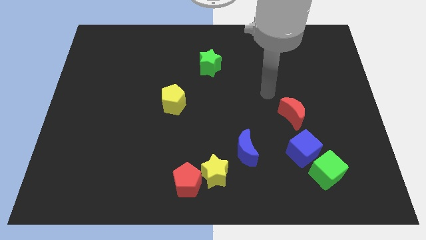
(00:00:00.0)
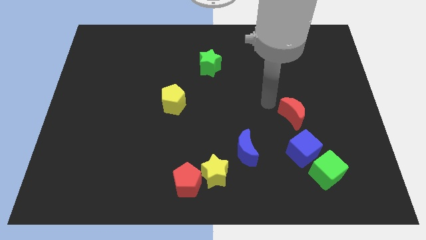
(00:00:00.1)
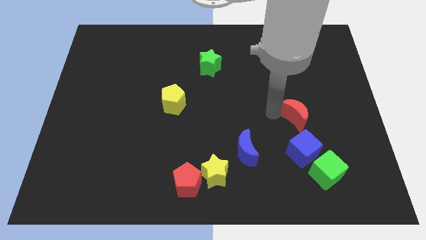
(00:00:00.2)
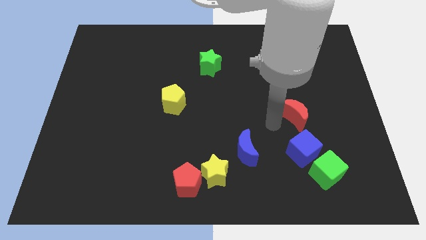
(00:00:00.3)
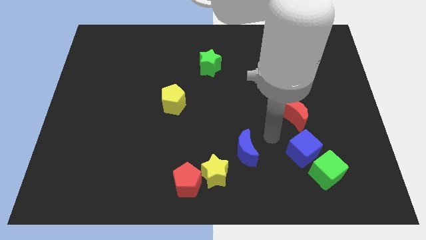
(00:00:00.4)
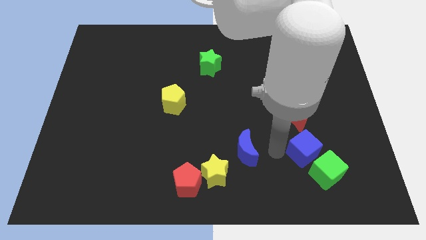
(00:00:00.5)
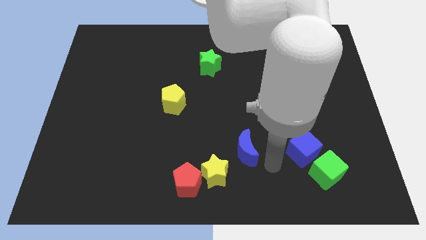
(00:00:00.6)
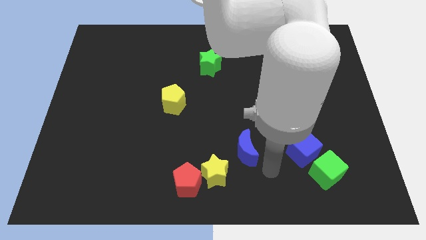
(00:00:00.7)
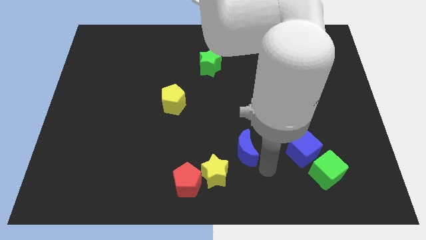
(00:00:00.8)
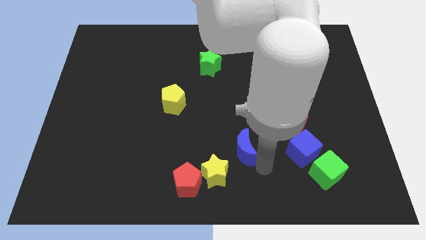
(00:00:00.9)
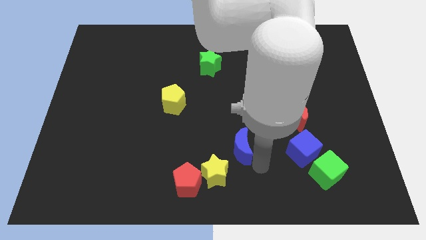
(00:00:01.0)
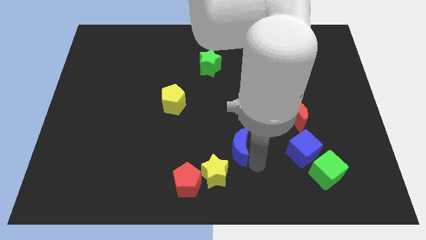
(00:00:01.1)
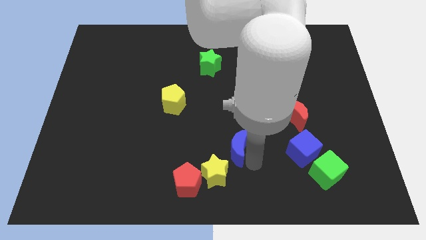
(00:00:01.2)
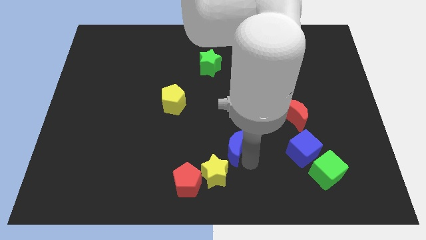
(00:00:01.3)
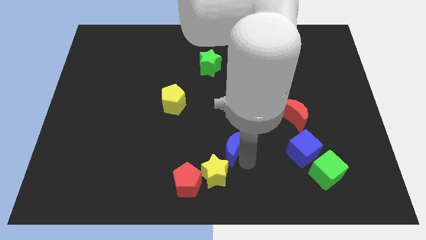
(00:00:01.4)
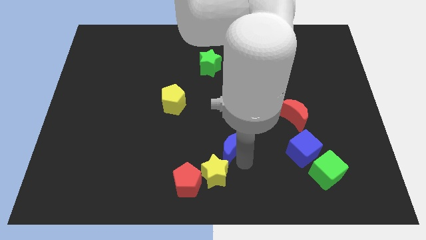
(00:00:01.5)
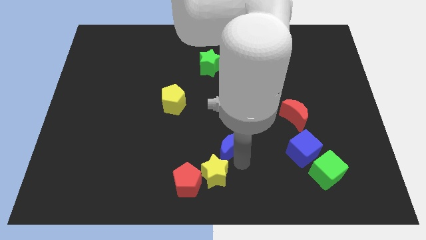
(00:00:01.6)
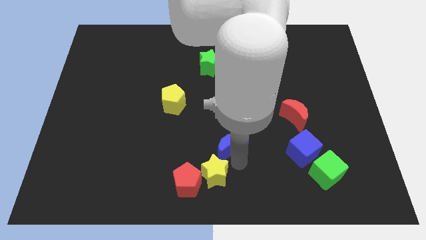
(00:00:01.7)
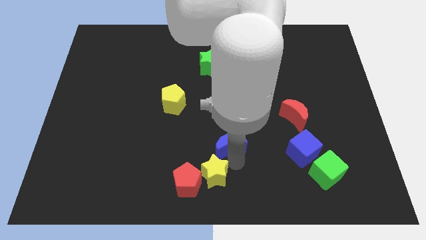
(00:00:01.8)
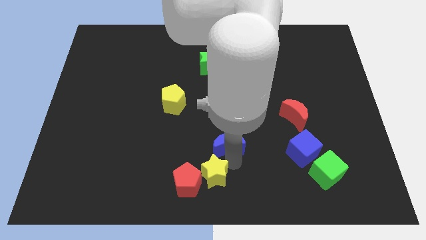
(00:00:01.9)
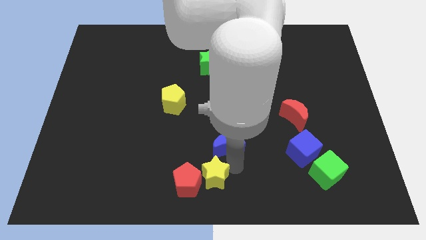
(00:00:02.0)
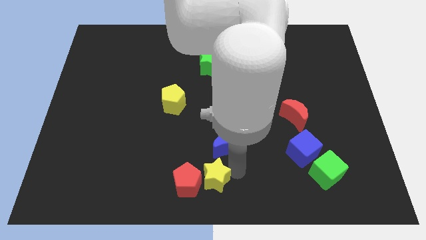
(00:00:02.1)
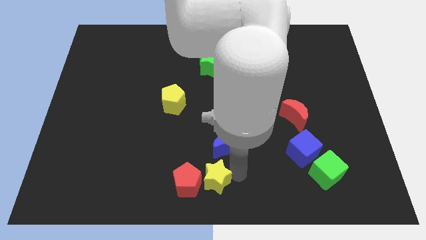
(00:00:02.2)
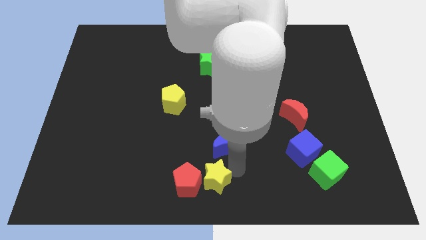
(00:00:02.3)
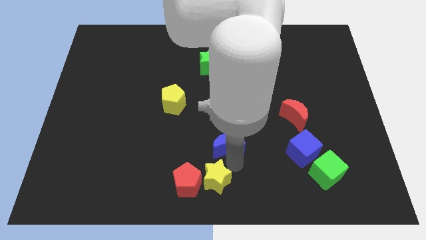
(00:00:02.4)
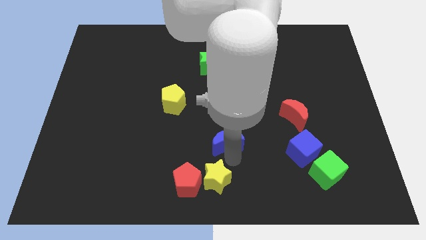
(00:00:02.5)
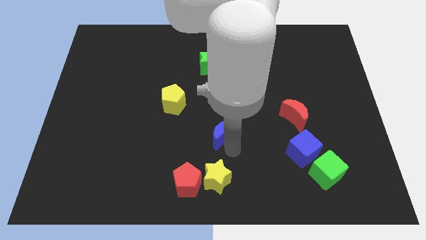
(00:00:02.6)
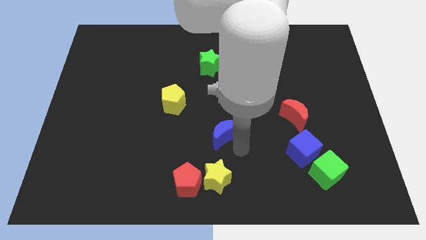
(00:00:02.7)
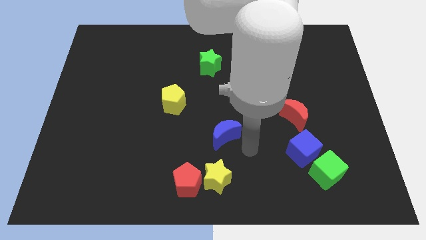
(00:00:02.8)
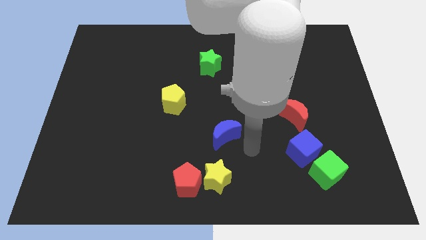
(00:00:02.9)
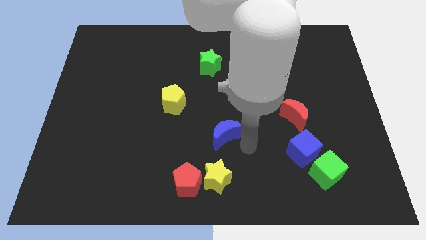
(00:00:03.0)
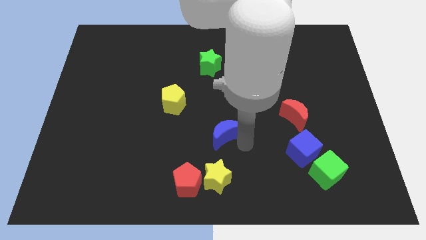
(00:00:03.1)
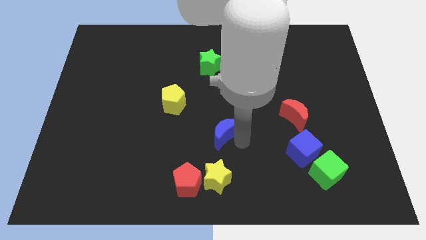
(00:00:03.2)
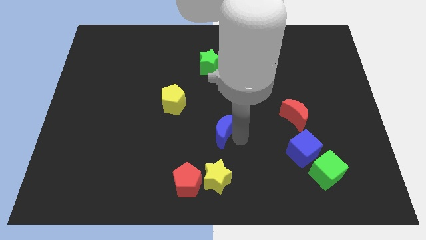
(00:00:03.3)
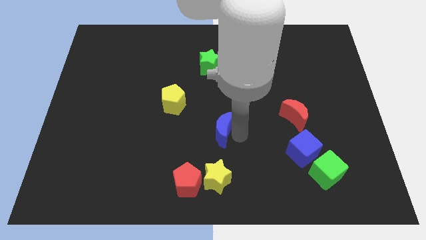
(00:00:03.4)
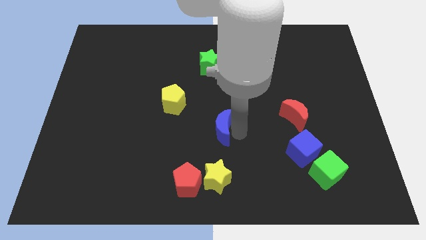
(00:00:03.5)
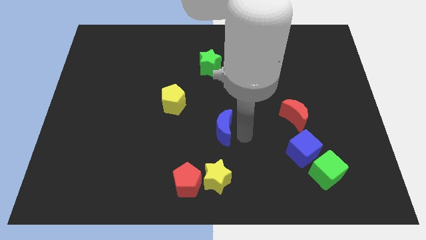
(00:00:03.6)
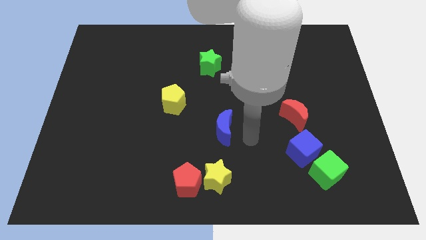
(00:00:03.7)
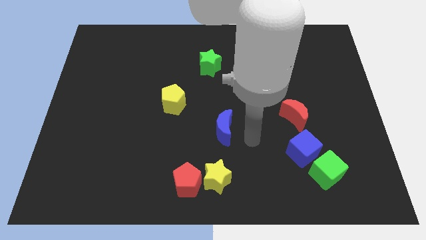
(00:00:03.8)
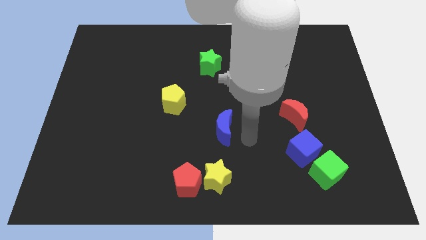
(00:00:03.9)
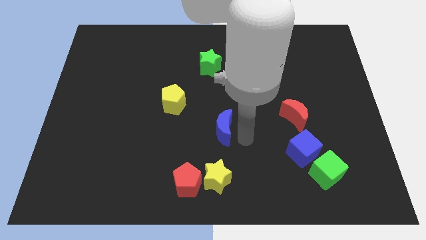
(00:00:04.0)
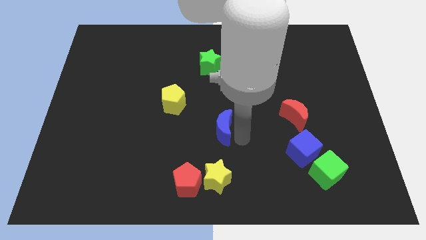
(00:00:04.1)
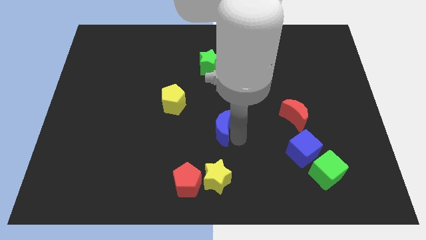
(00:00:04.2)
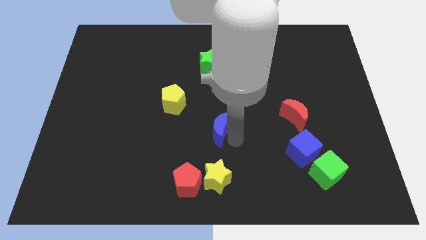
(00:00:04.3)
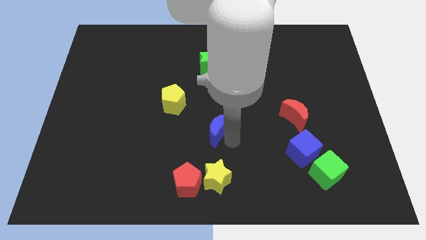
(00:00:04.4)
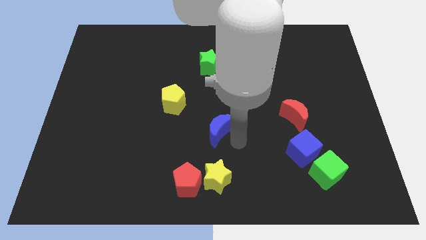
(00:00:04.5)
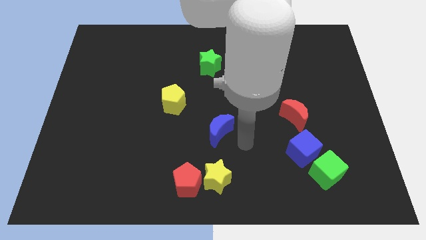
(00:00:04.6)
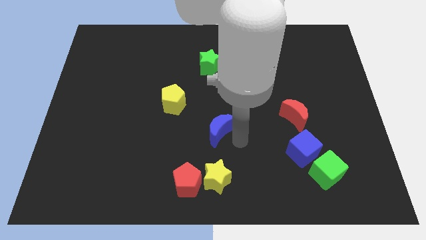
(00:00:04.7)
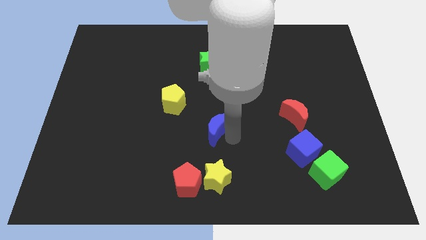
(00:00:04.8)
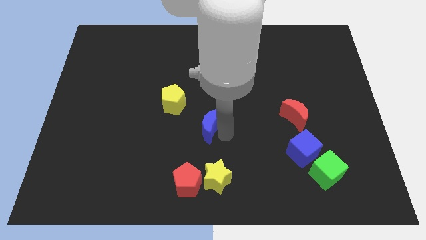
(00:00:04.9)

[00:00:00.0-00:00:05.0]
slide the blue moon to the bottom right side of the yellow pentagon

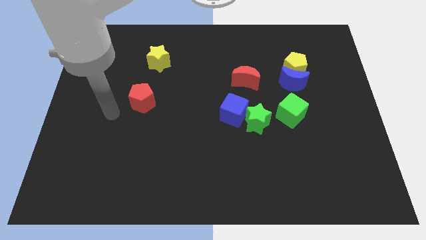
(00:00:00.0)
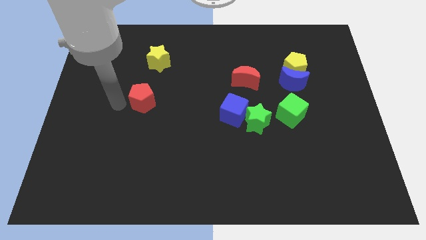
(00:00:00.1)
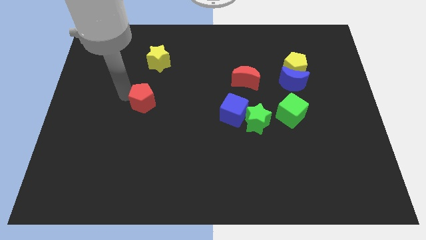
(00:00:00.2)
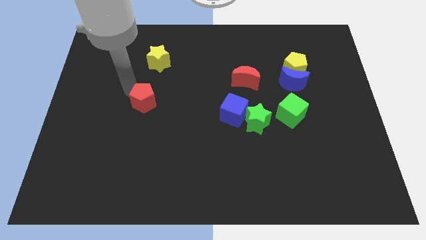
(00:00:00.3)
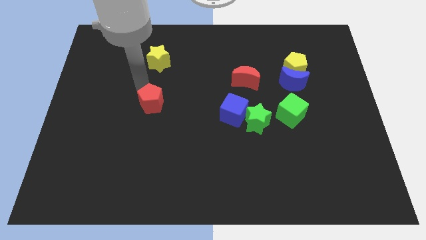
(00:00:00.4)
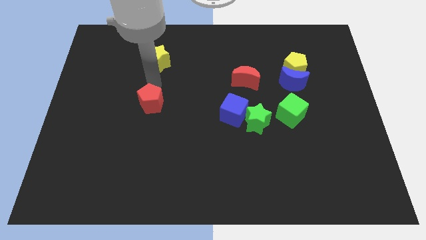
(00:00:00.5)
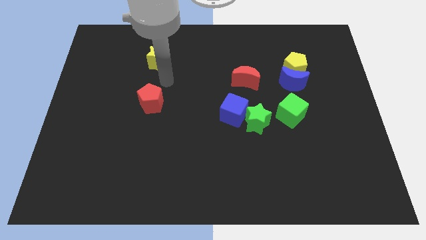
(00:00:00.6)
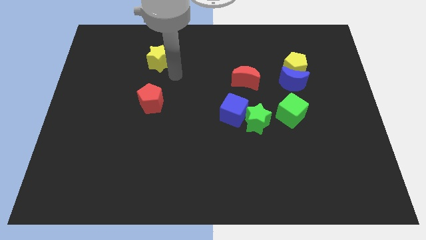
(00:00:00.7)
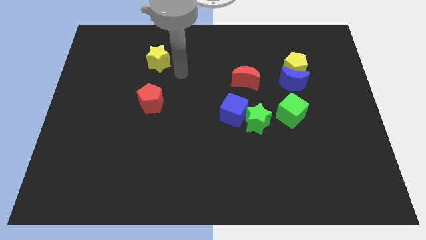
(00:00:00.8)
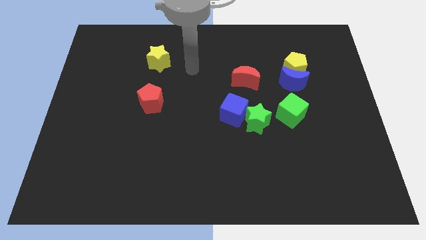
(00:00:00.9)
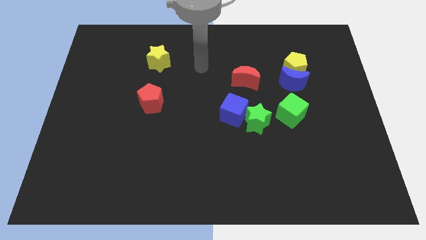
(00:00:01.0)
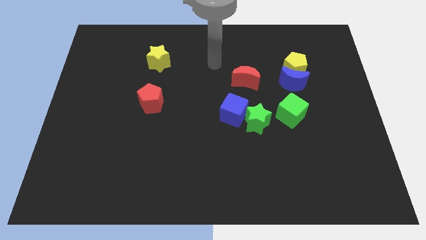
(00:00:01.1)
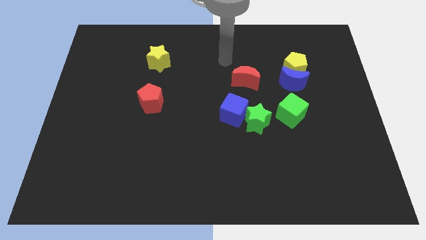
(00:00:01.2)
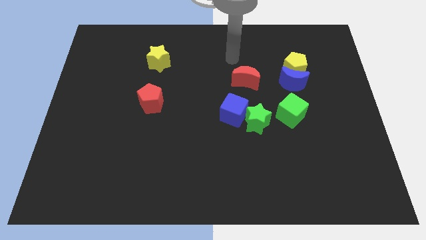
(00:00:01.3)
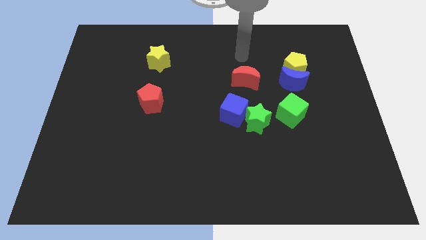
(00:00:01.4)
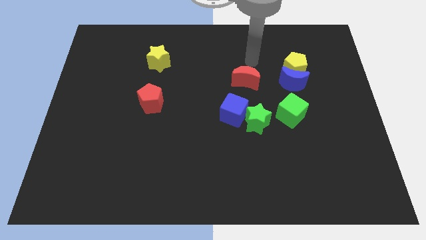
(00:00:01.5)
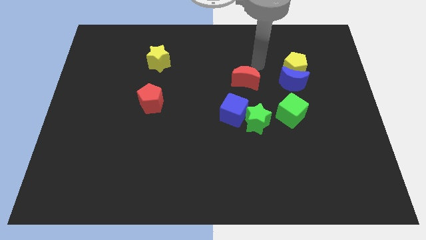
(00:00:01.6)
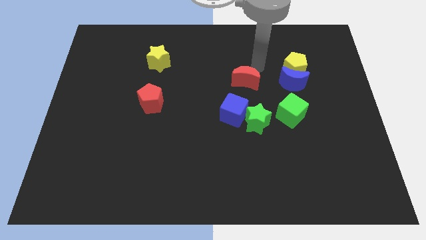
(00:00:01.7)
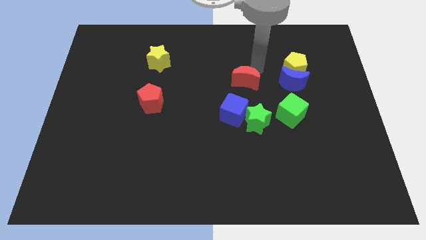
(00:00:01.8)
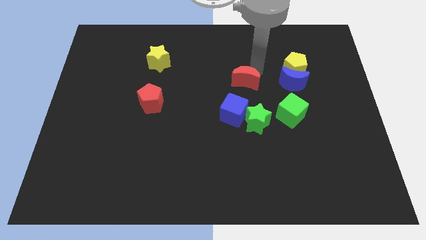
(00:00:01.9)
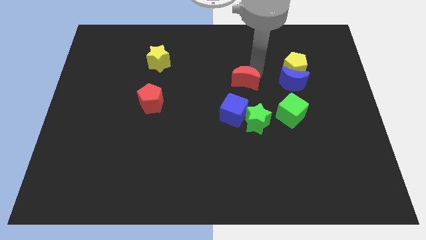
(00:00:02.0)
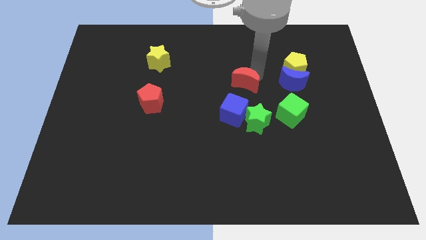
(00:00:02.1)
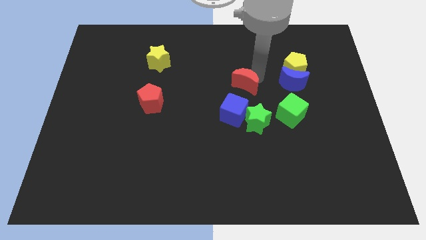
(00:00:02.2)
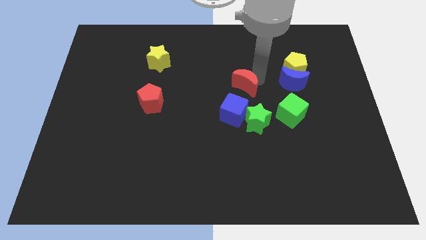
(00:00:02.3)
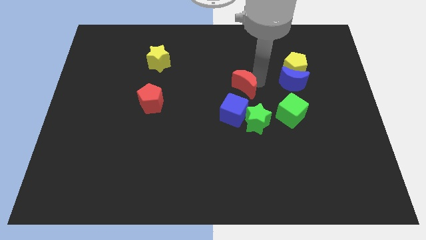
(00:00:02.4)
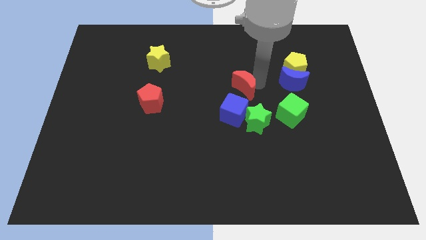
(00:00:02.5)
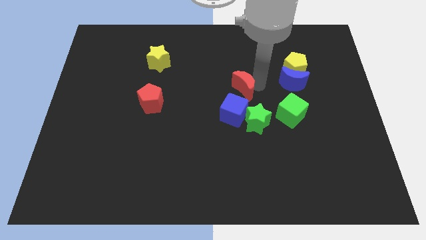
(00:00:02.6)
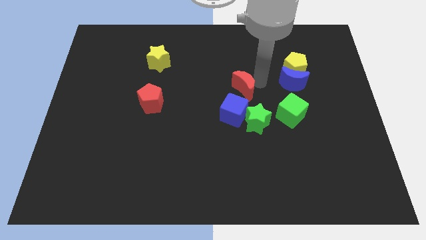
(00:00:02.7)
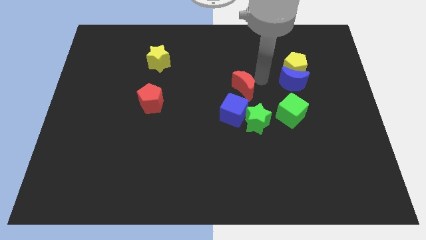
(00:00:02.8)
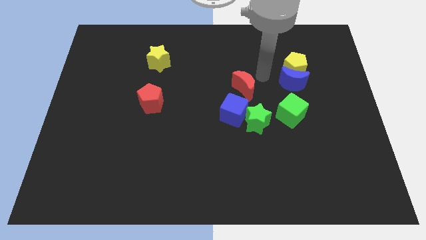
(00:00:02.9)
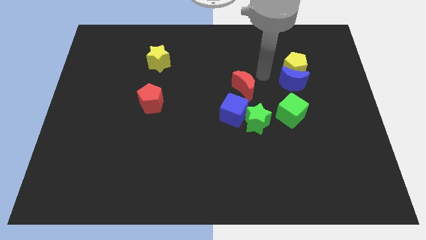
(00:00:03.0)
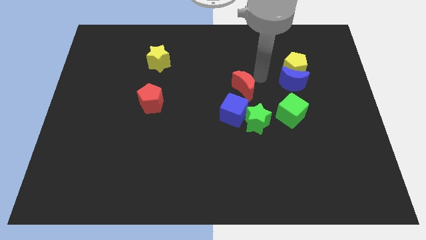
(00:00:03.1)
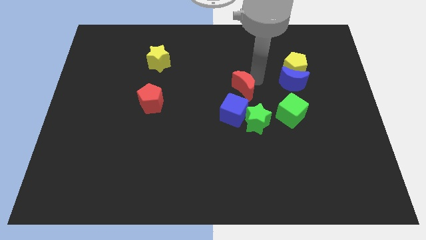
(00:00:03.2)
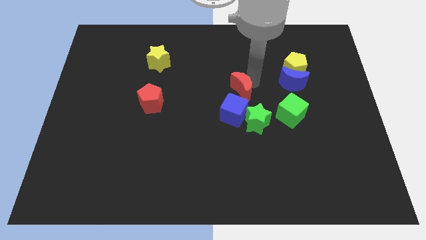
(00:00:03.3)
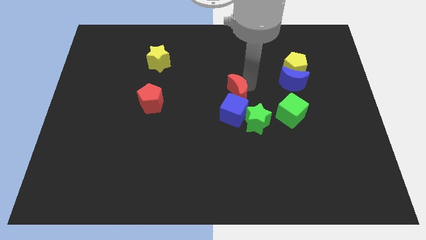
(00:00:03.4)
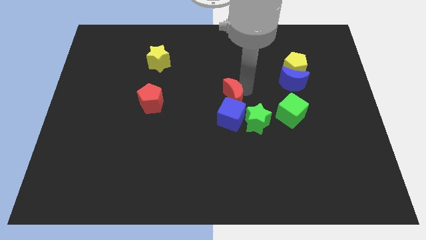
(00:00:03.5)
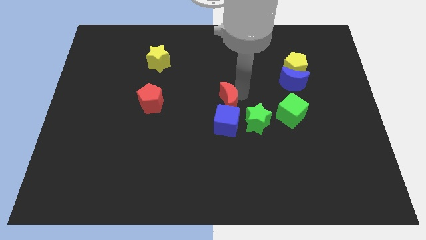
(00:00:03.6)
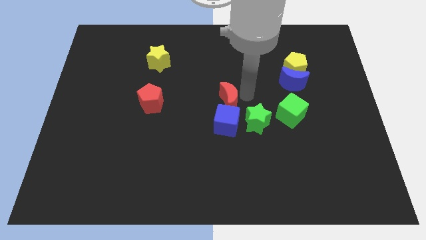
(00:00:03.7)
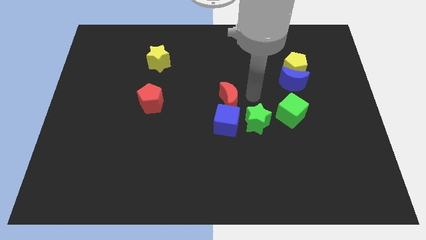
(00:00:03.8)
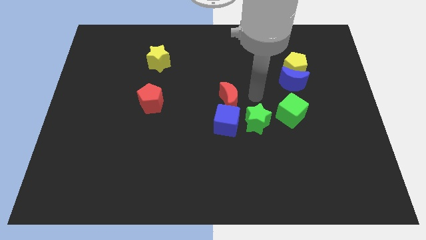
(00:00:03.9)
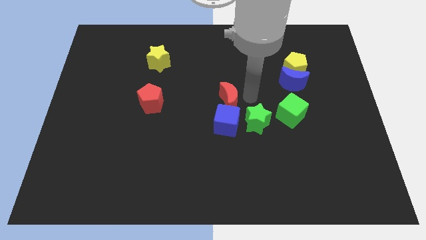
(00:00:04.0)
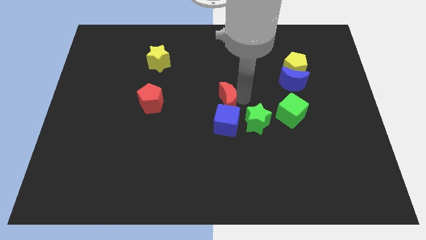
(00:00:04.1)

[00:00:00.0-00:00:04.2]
move the red moon diagonally up and to the left of the blue cube
